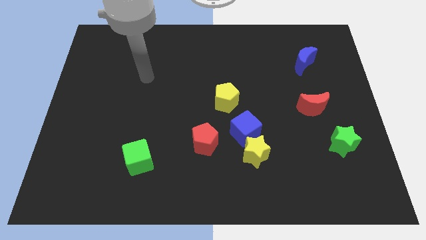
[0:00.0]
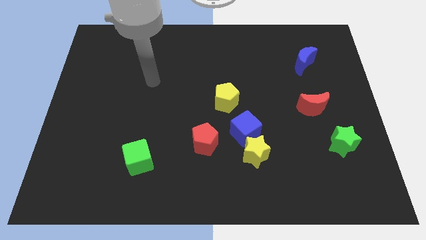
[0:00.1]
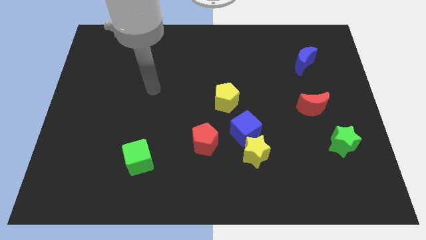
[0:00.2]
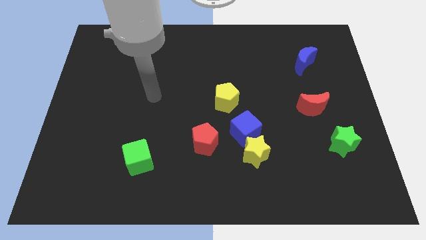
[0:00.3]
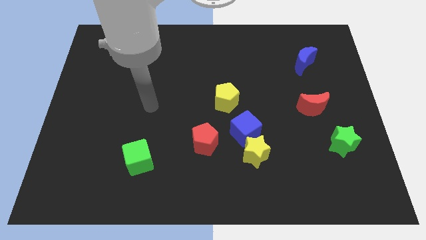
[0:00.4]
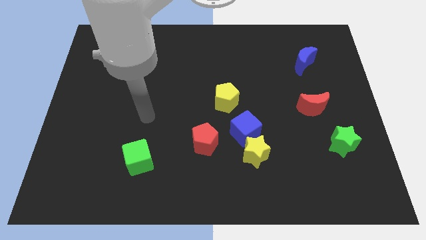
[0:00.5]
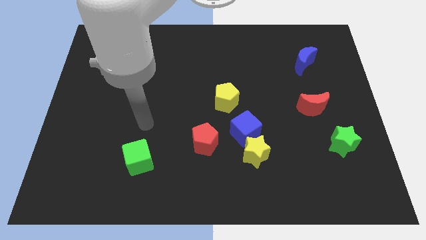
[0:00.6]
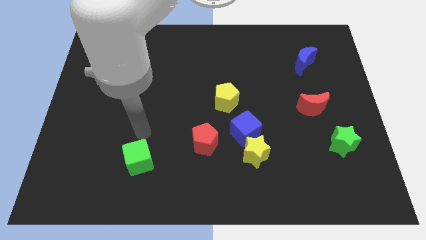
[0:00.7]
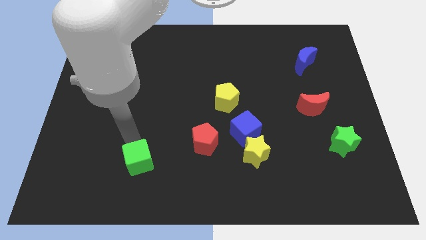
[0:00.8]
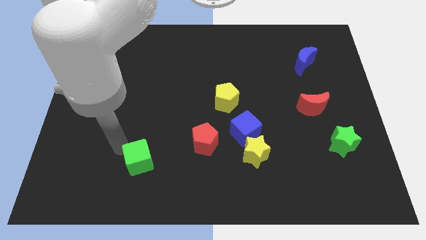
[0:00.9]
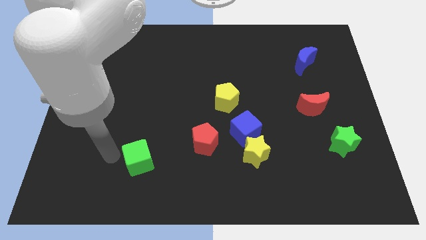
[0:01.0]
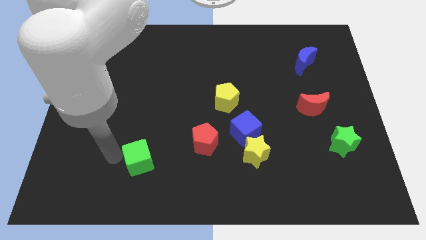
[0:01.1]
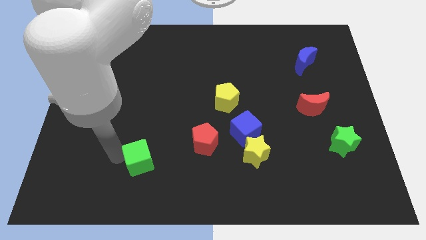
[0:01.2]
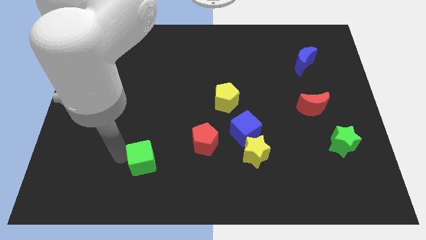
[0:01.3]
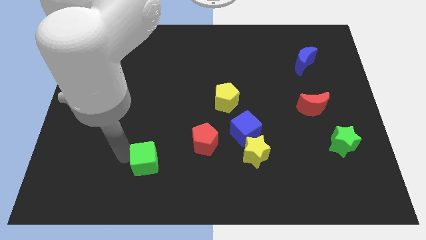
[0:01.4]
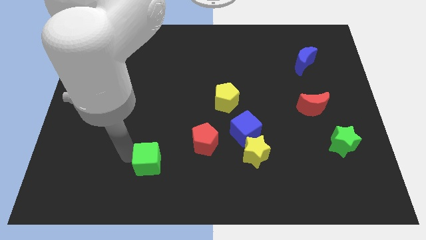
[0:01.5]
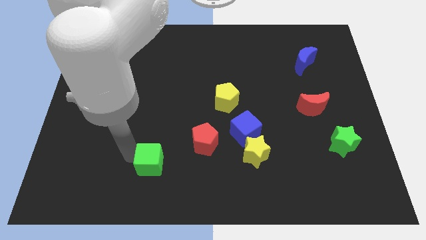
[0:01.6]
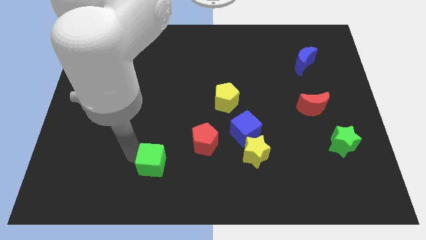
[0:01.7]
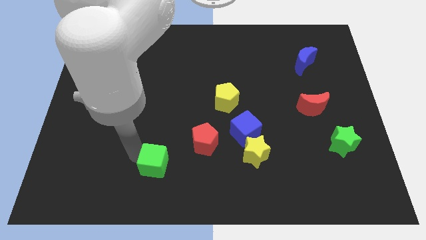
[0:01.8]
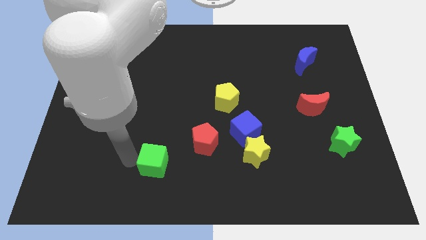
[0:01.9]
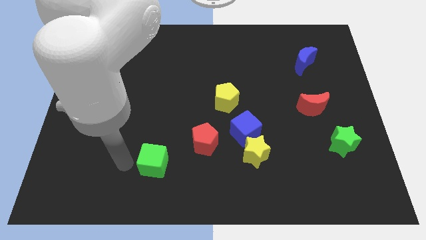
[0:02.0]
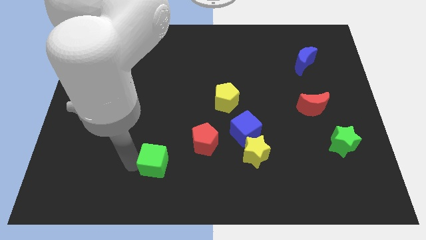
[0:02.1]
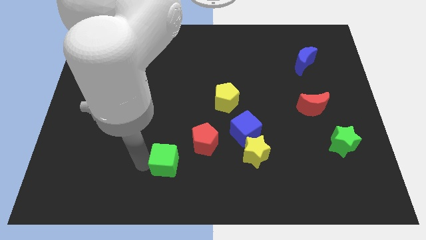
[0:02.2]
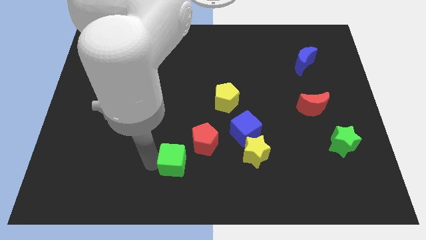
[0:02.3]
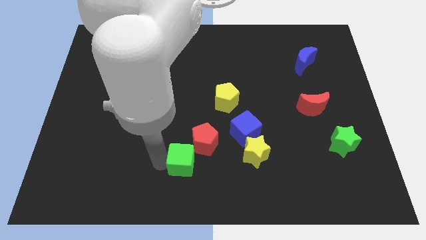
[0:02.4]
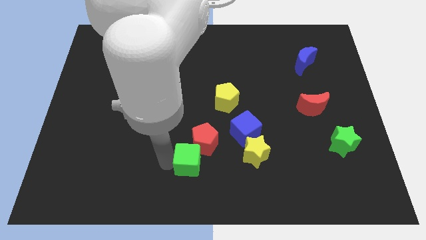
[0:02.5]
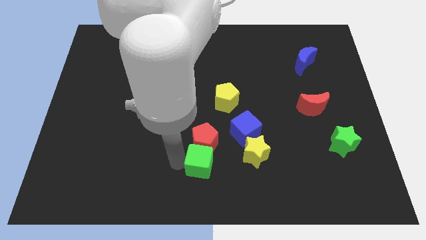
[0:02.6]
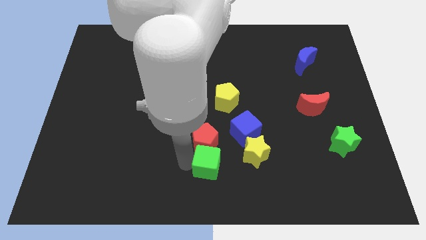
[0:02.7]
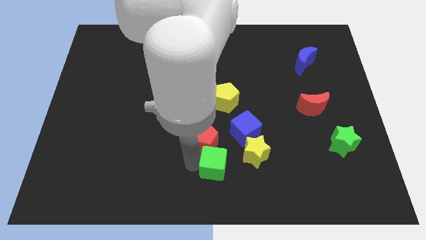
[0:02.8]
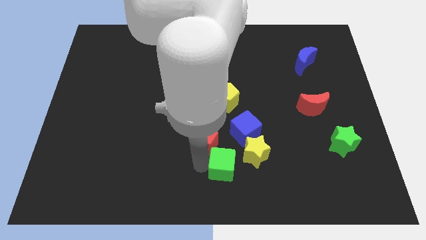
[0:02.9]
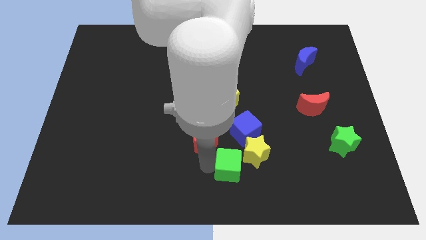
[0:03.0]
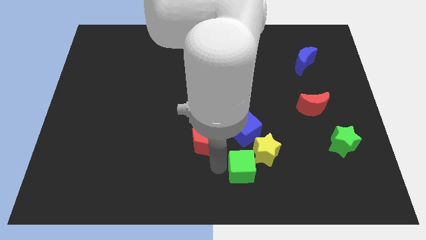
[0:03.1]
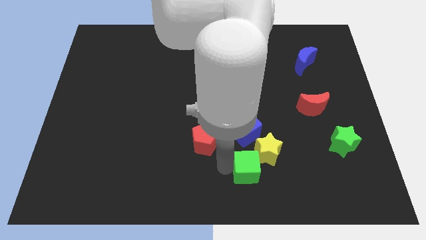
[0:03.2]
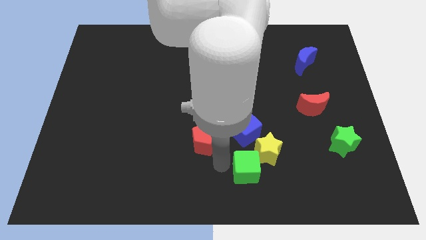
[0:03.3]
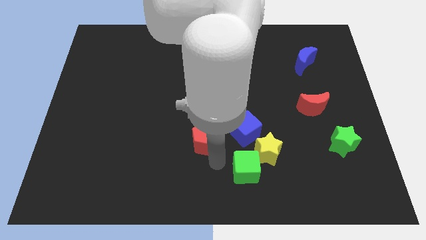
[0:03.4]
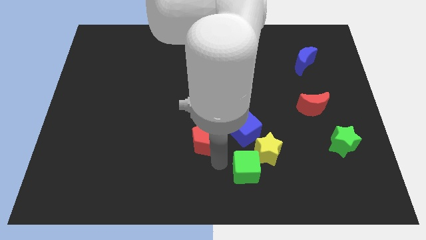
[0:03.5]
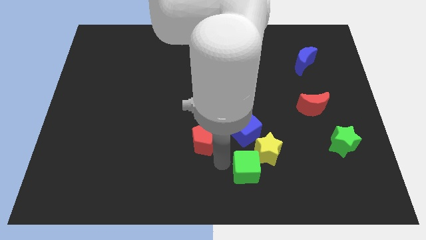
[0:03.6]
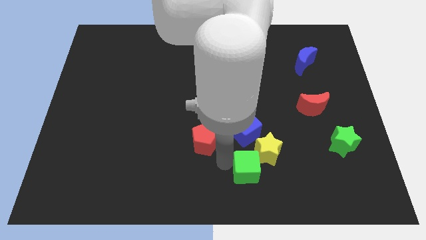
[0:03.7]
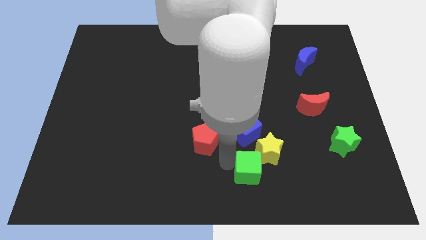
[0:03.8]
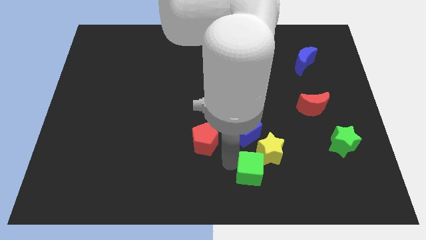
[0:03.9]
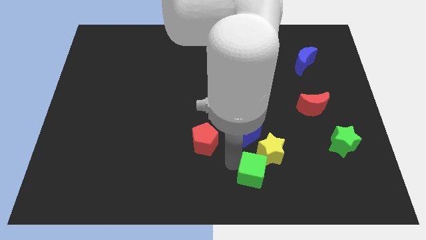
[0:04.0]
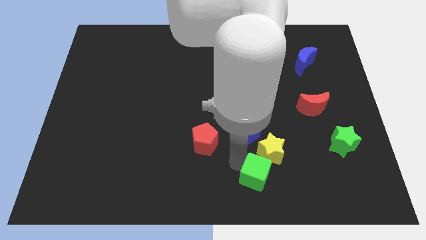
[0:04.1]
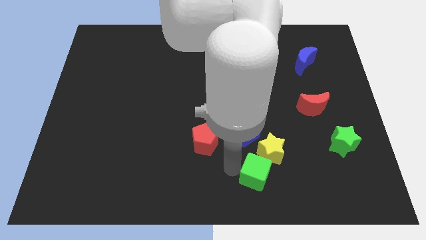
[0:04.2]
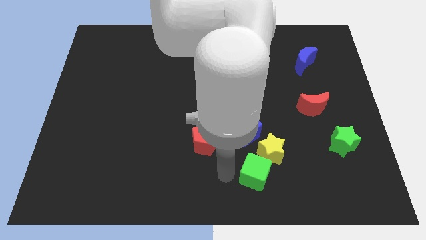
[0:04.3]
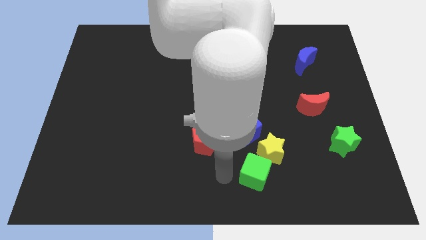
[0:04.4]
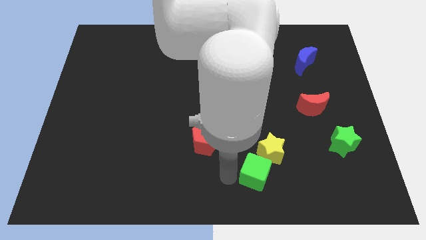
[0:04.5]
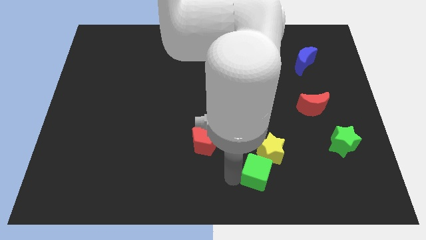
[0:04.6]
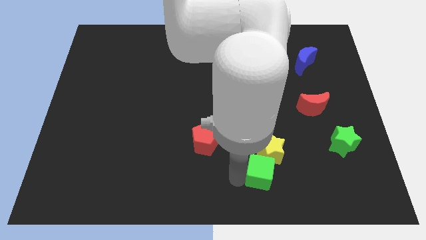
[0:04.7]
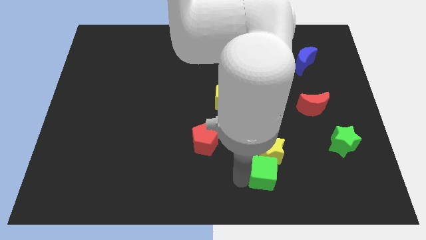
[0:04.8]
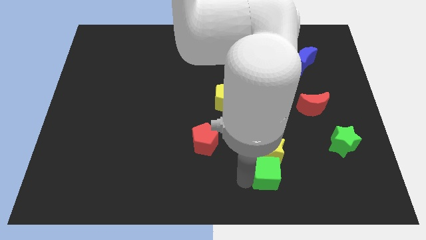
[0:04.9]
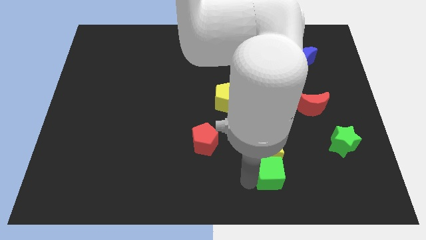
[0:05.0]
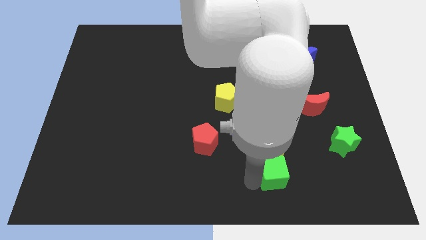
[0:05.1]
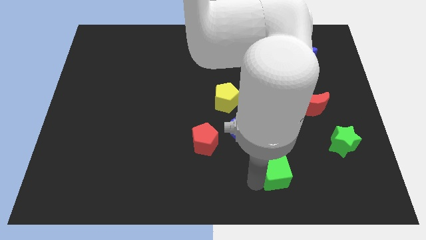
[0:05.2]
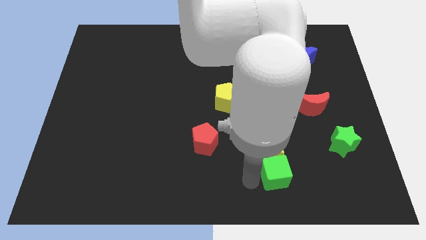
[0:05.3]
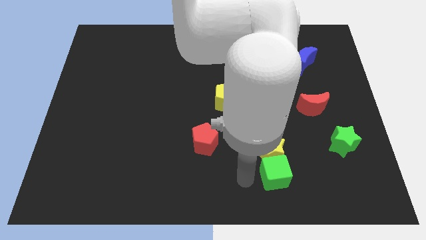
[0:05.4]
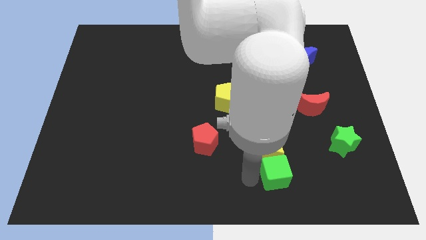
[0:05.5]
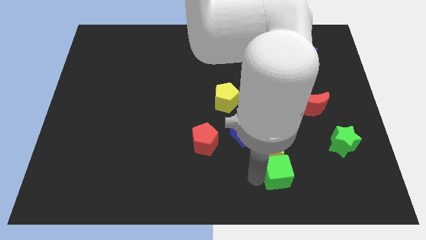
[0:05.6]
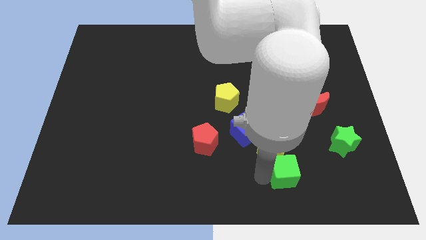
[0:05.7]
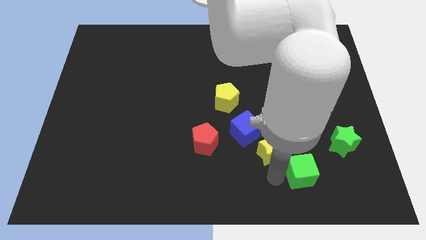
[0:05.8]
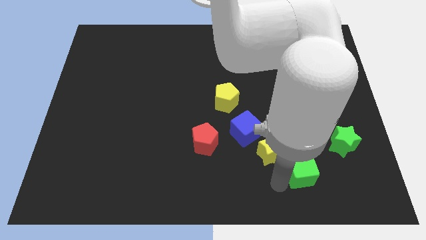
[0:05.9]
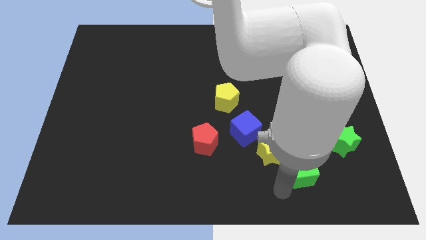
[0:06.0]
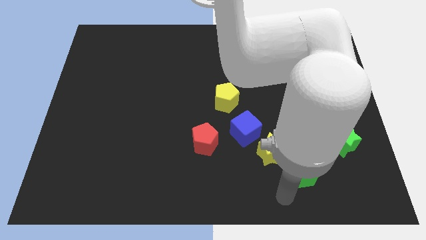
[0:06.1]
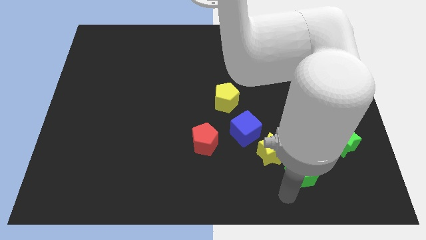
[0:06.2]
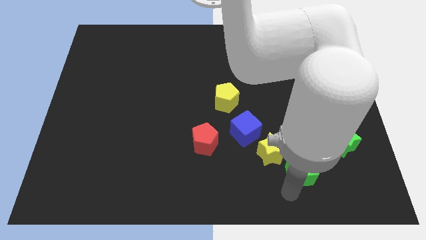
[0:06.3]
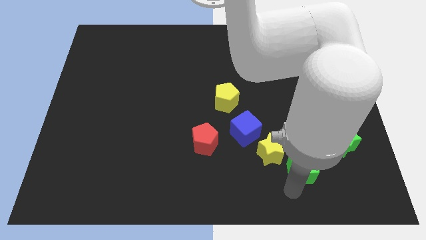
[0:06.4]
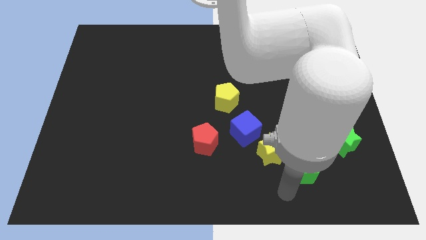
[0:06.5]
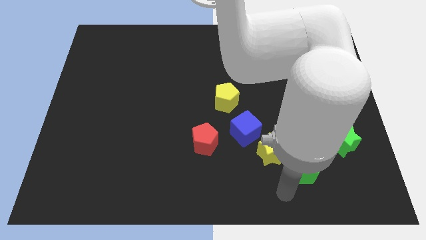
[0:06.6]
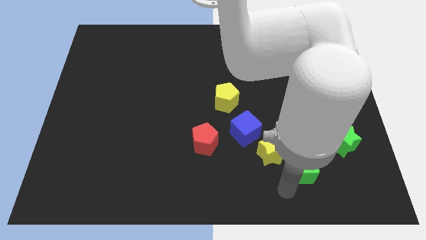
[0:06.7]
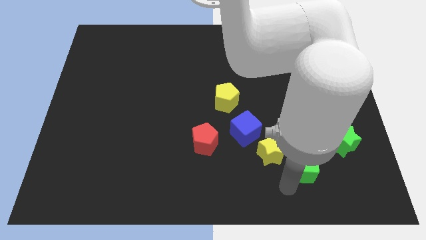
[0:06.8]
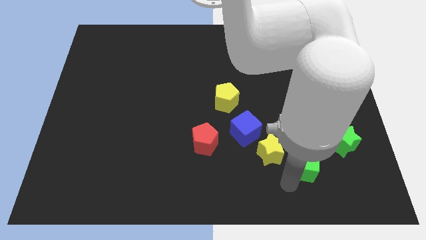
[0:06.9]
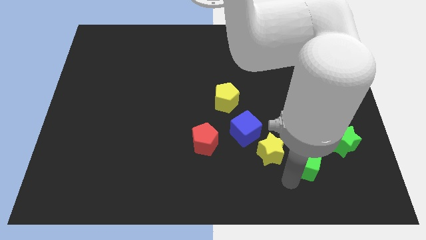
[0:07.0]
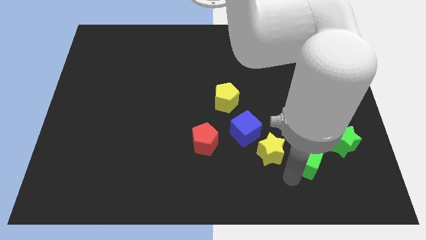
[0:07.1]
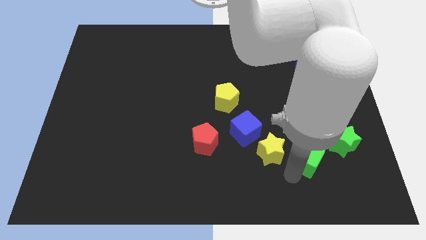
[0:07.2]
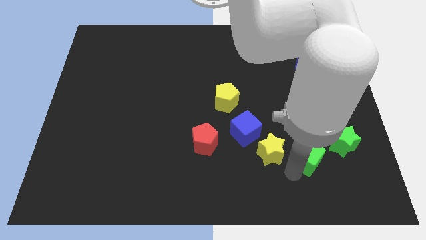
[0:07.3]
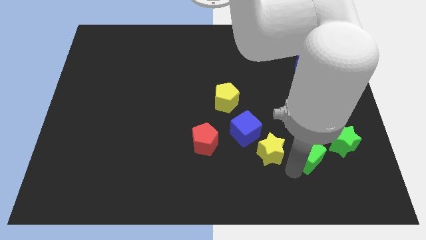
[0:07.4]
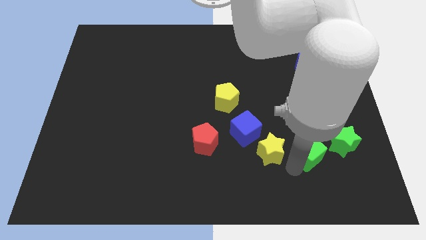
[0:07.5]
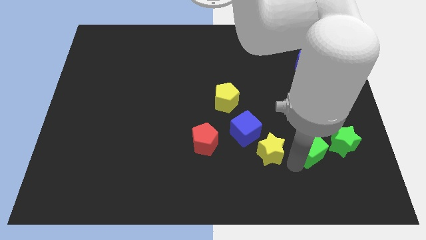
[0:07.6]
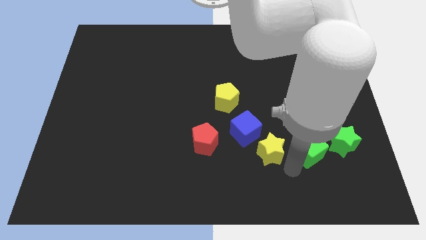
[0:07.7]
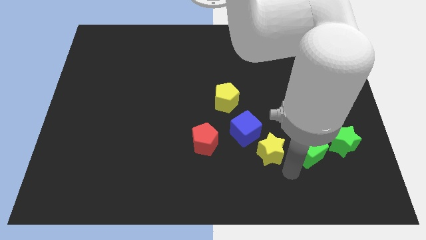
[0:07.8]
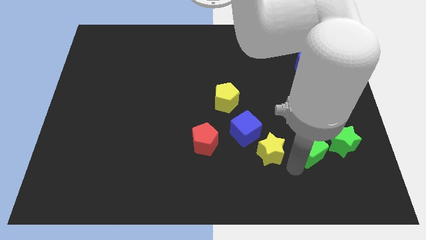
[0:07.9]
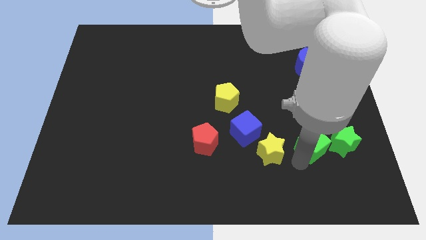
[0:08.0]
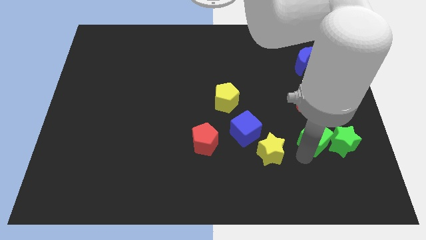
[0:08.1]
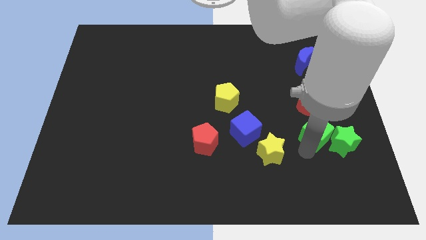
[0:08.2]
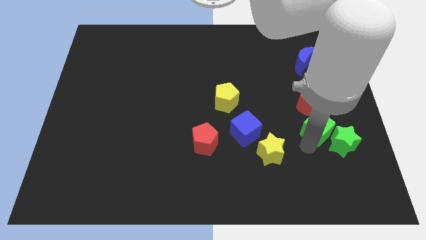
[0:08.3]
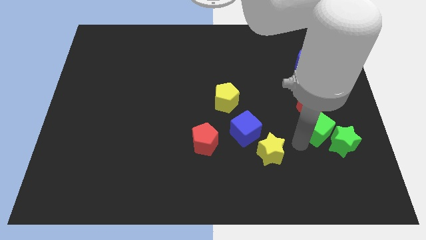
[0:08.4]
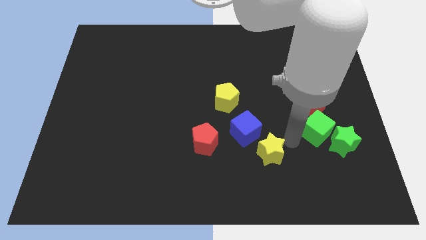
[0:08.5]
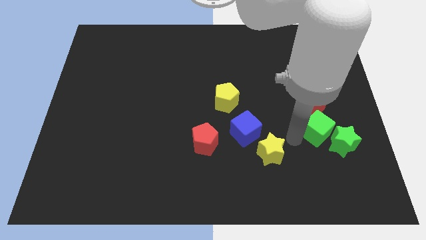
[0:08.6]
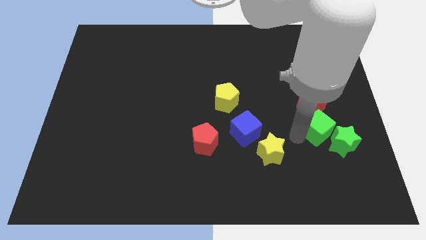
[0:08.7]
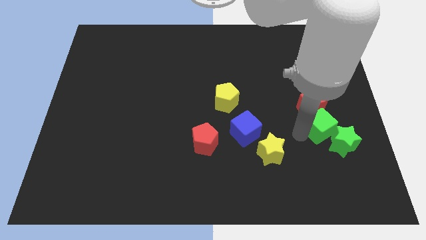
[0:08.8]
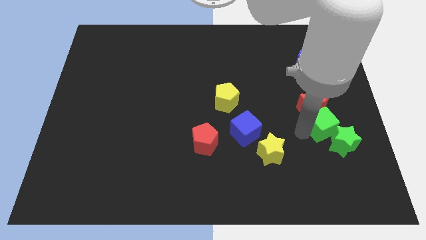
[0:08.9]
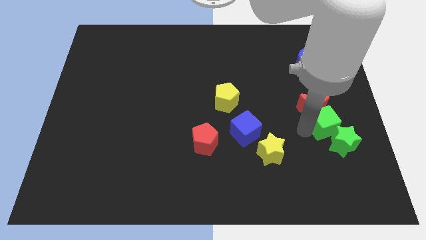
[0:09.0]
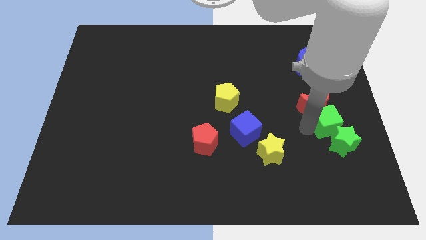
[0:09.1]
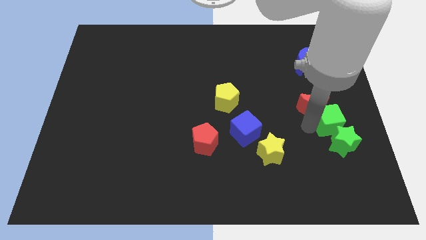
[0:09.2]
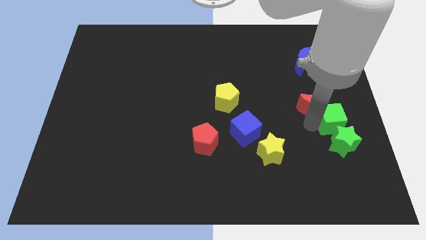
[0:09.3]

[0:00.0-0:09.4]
push the green cube to the right side of the board
